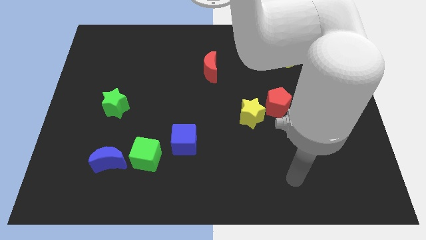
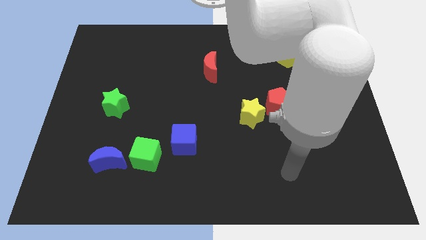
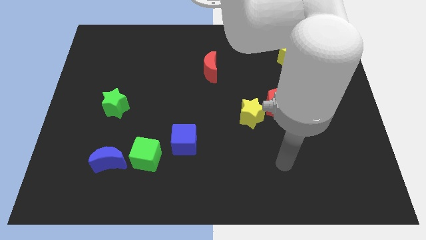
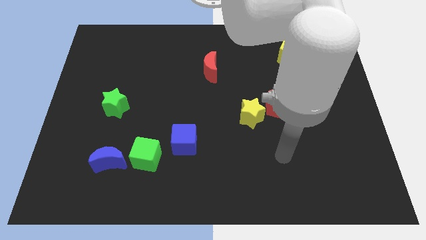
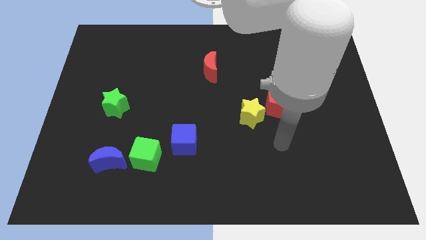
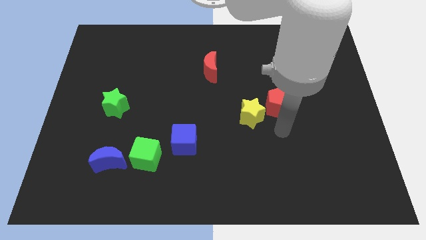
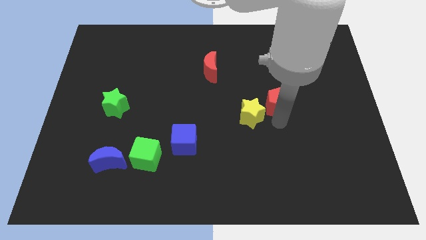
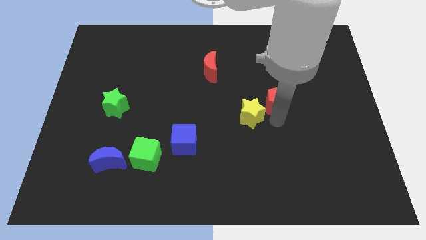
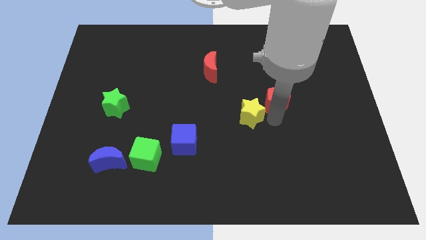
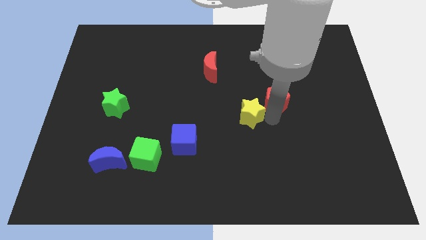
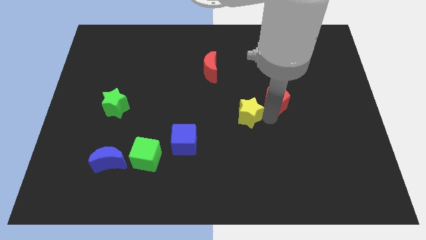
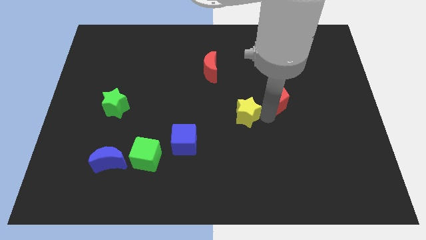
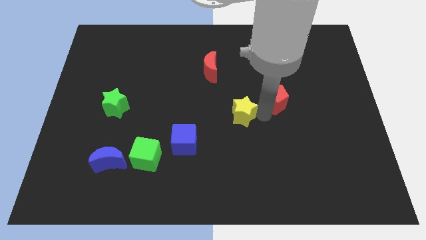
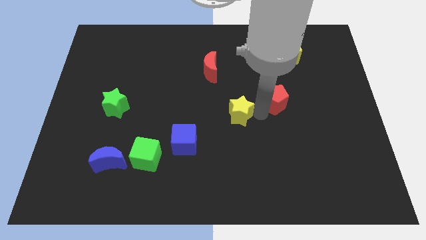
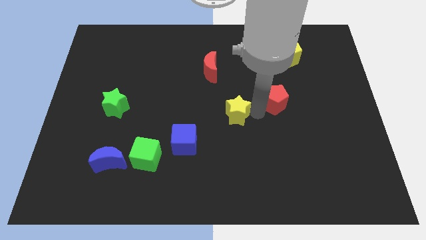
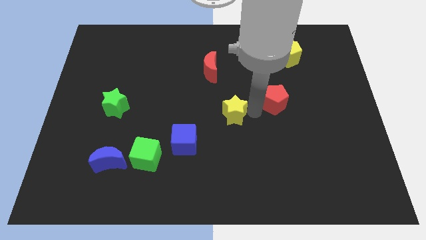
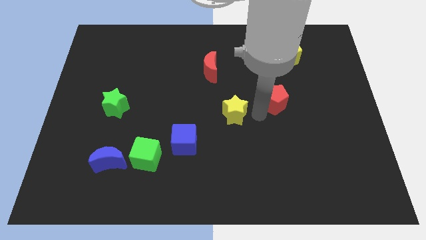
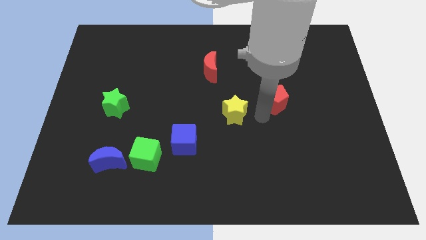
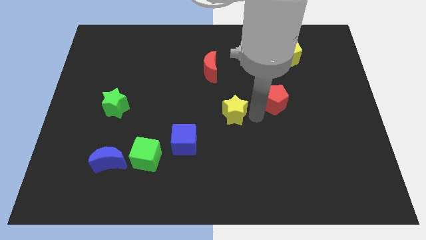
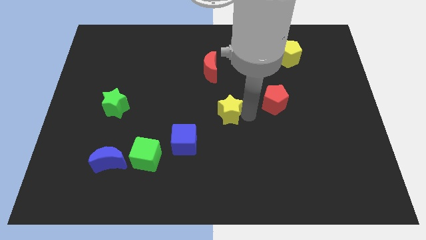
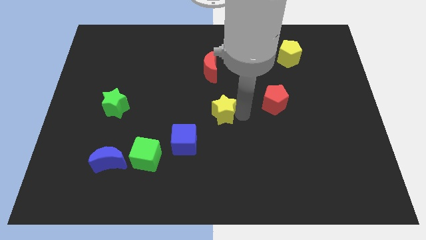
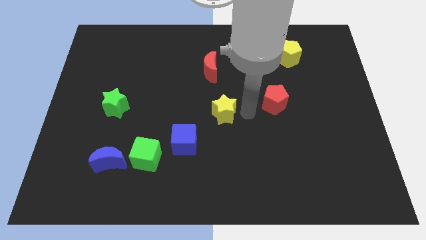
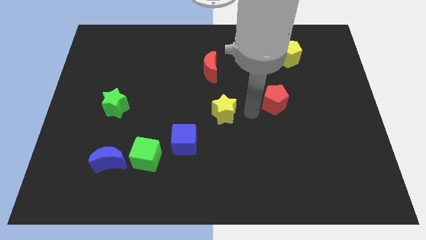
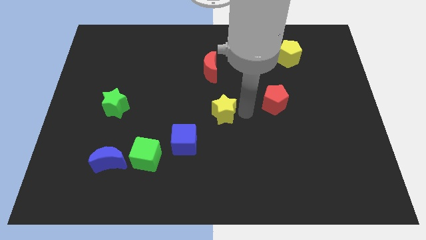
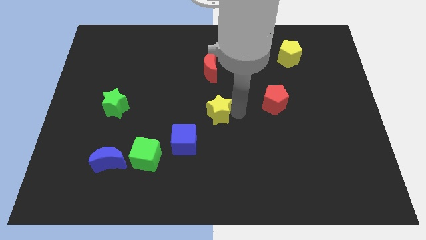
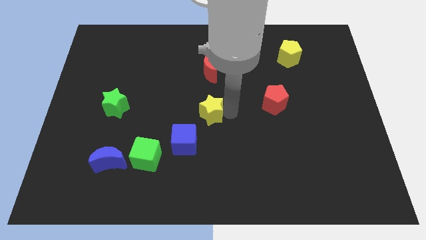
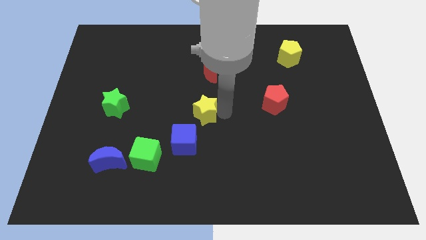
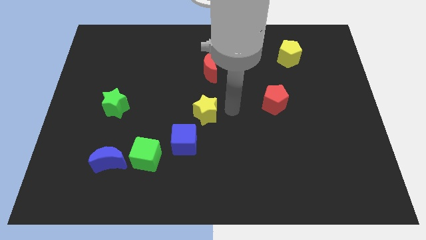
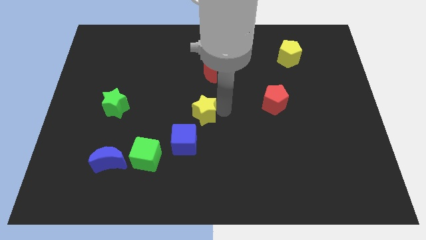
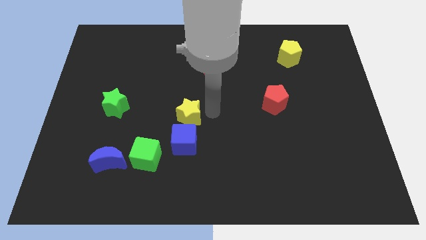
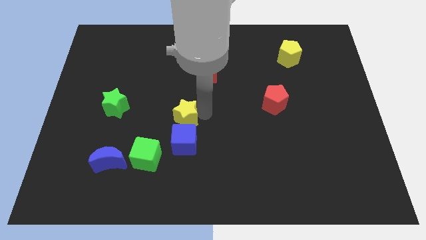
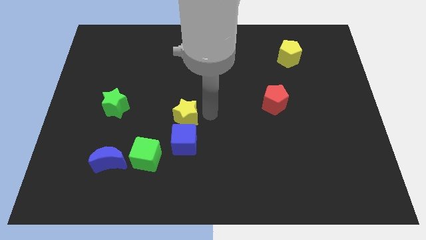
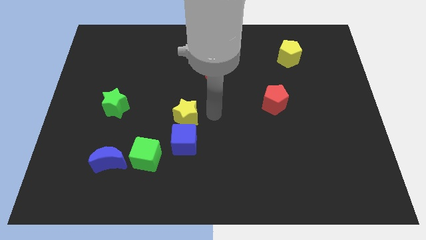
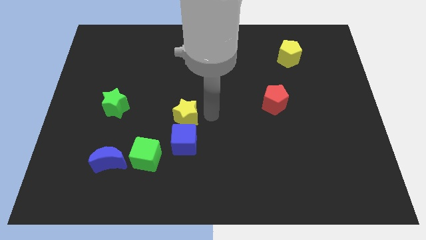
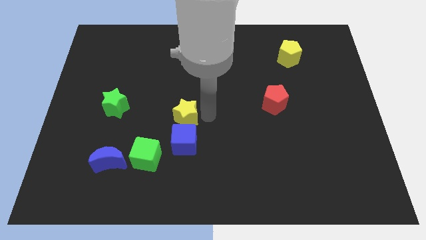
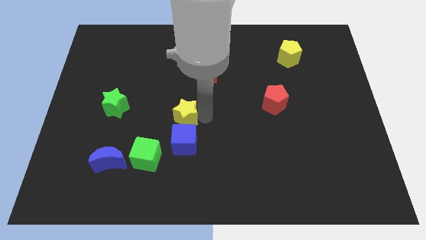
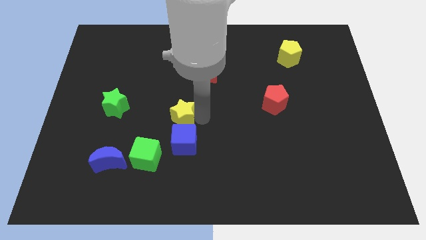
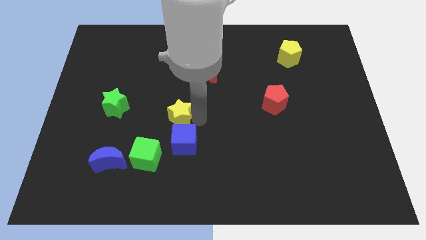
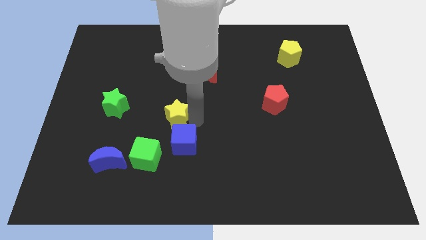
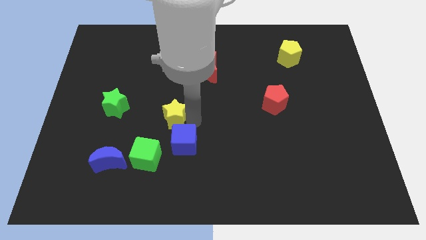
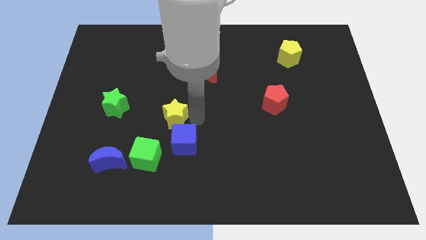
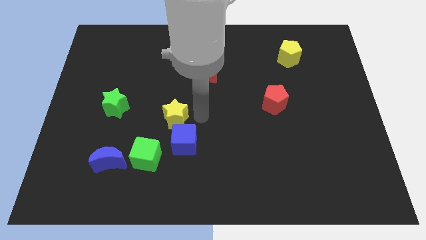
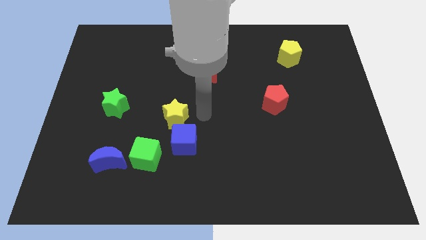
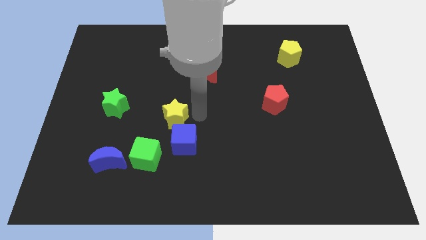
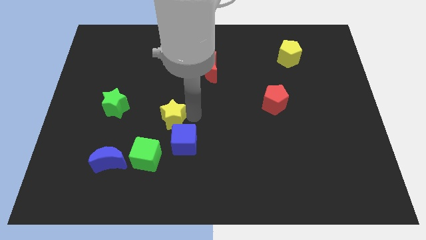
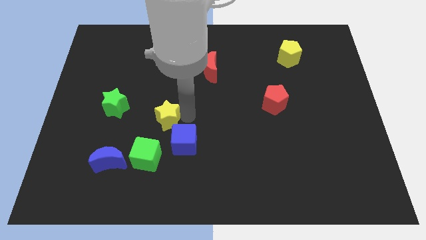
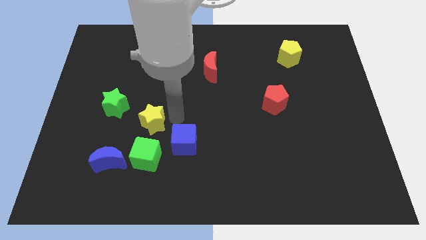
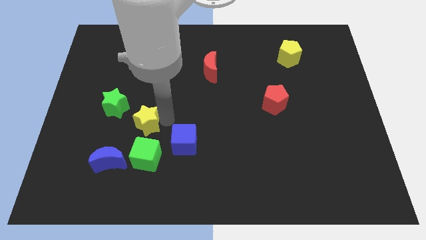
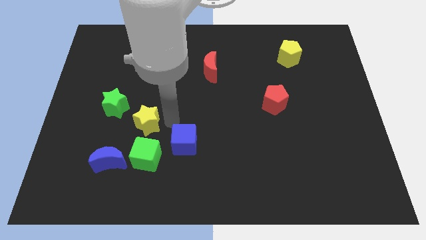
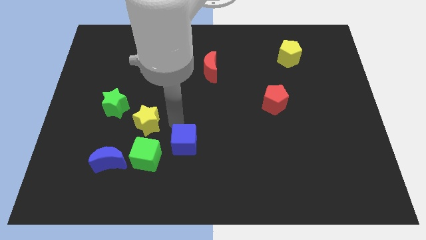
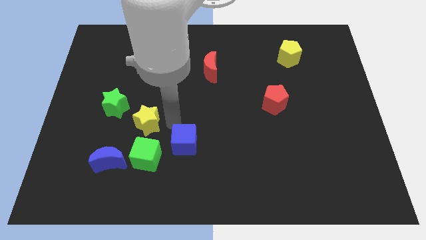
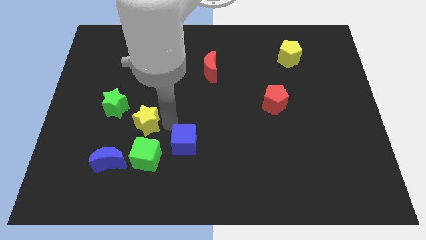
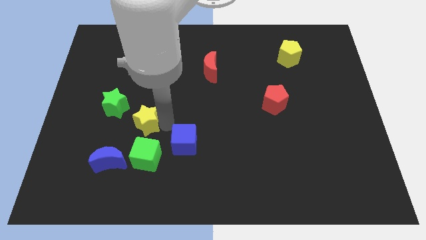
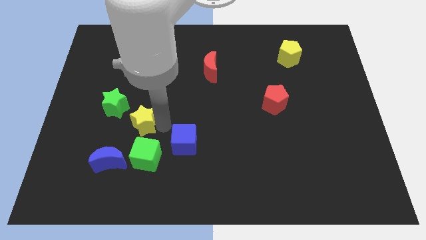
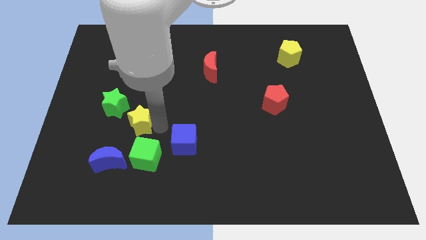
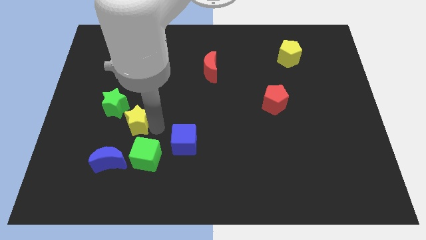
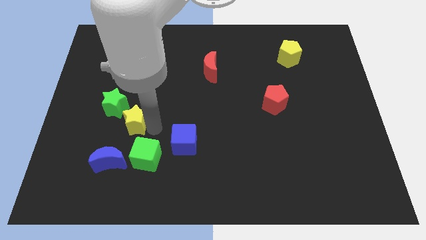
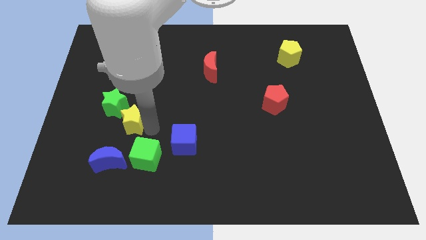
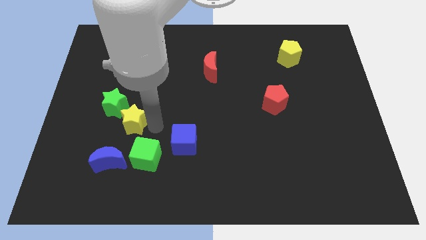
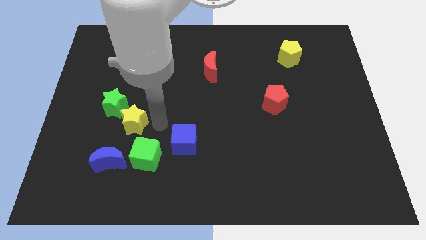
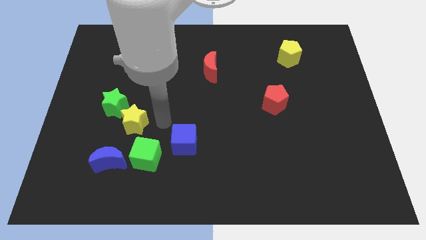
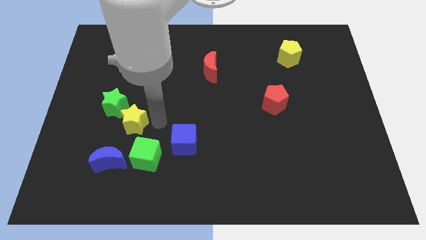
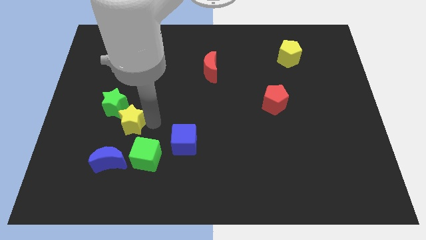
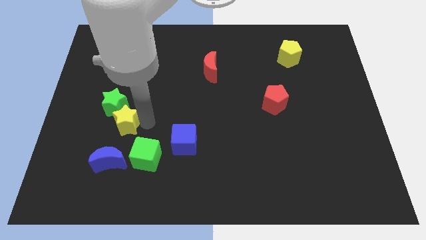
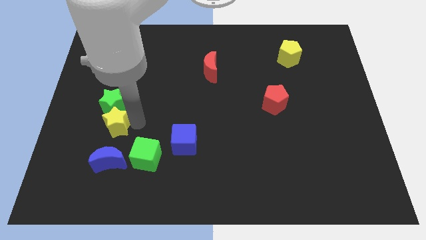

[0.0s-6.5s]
push the yellow star to the bottom left side of the green star

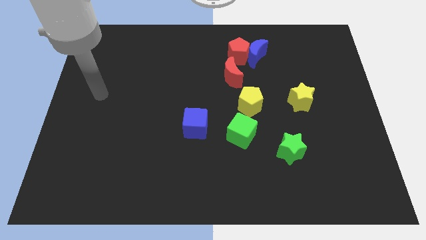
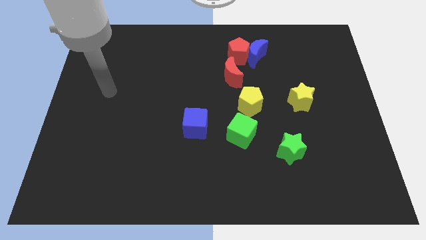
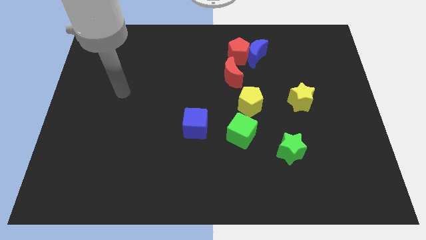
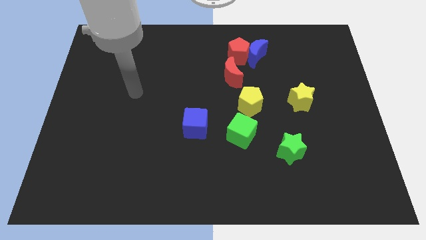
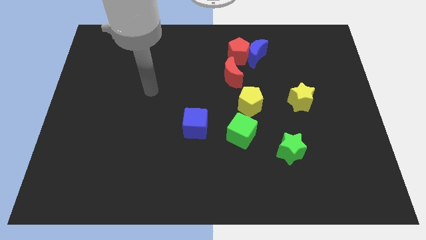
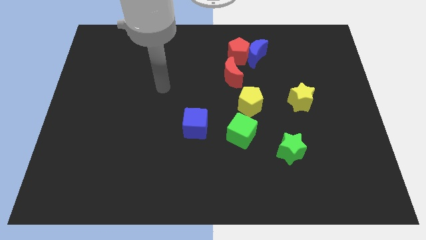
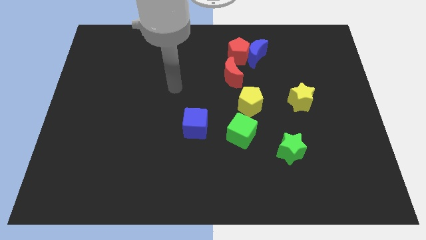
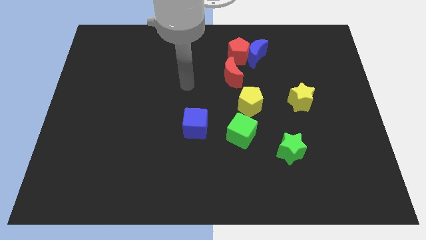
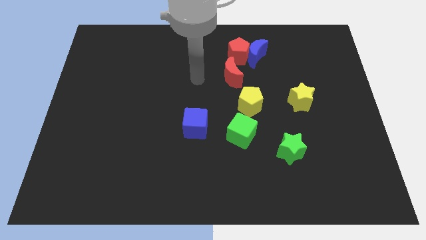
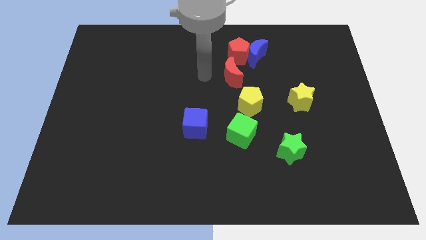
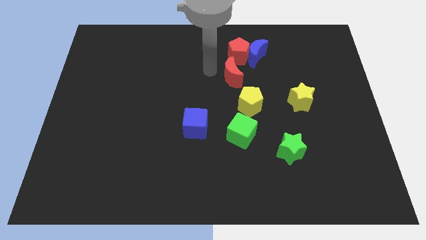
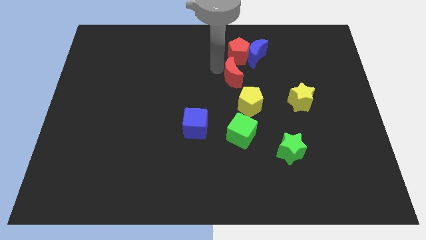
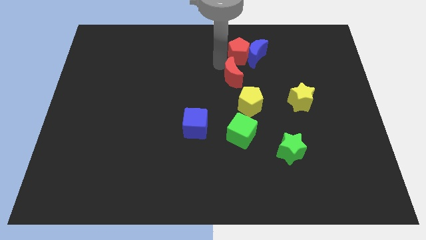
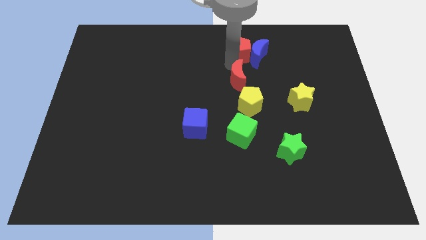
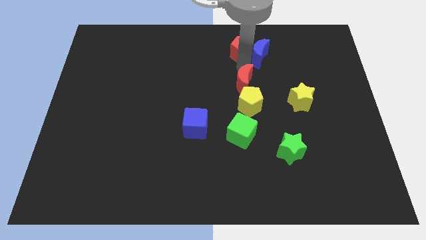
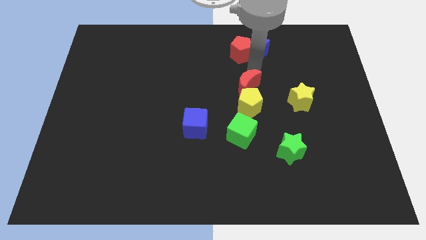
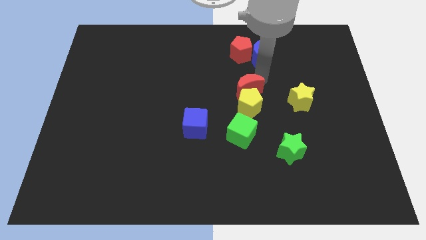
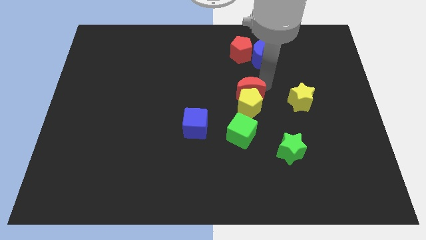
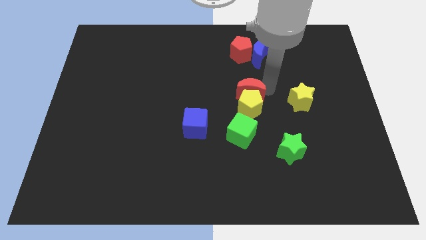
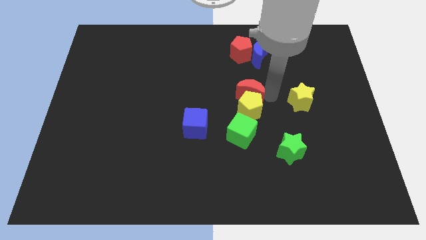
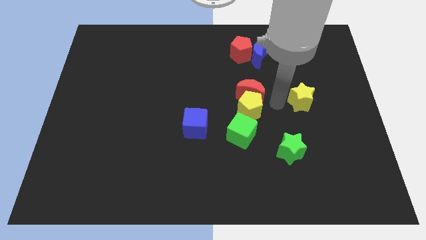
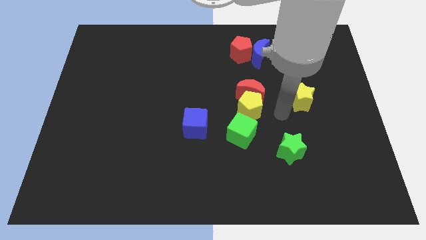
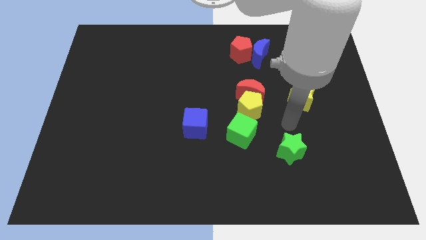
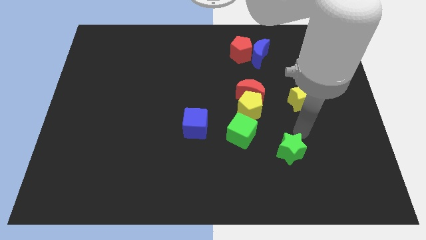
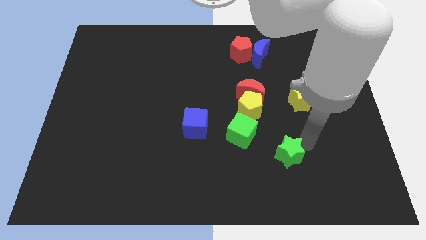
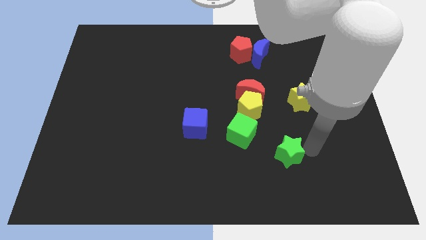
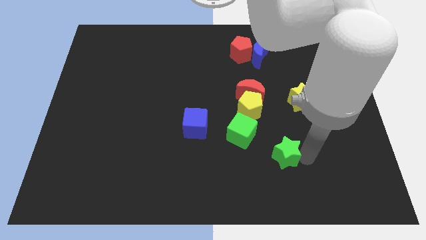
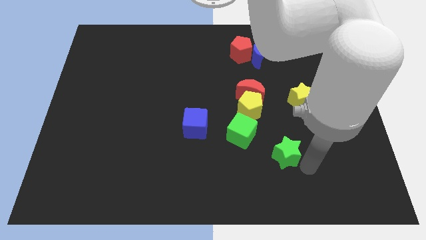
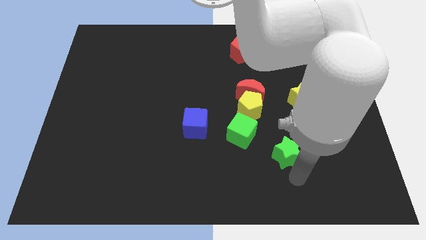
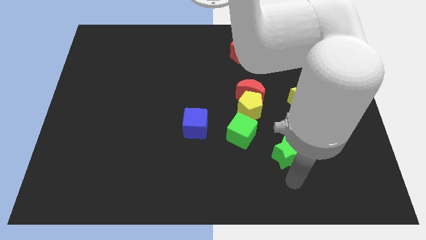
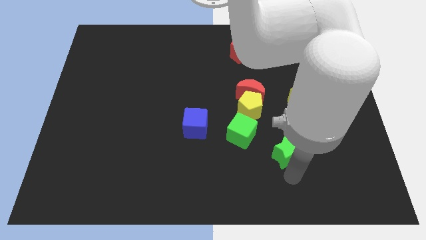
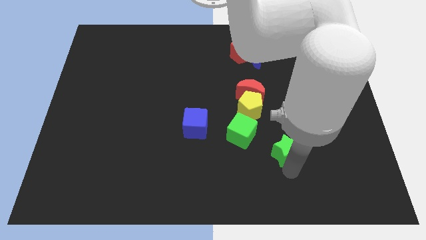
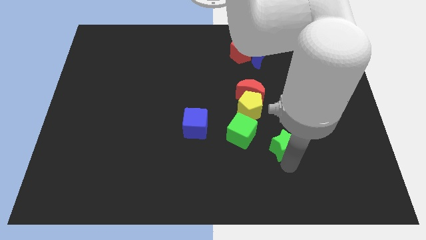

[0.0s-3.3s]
put the green star diagonally down and to the right of the yellow pentagon
